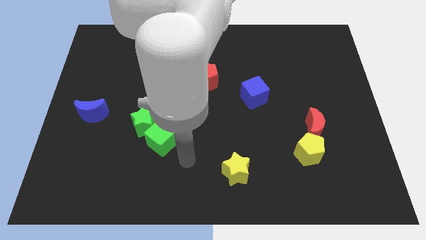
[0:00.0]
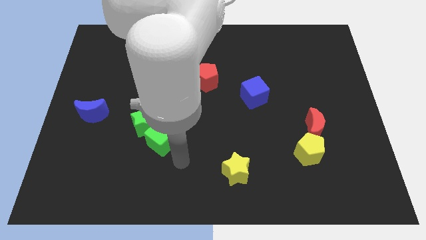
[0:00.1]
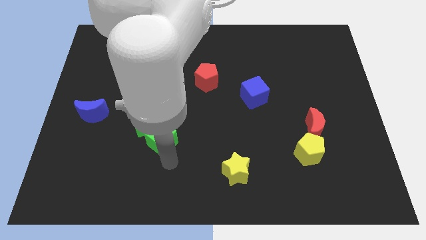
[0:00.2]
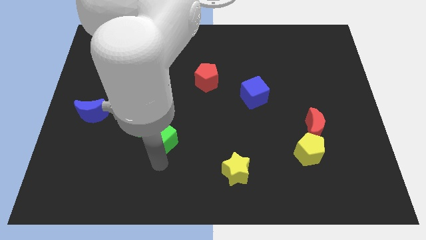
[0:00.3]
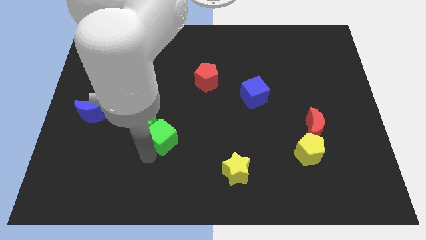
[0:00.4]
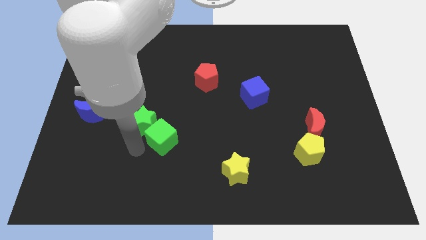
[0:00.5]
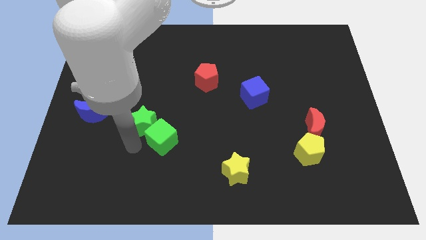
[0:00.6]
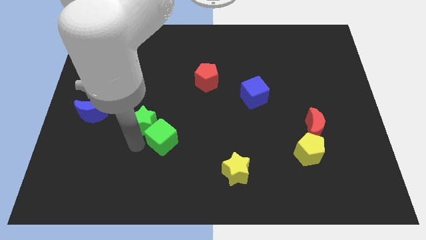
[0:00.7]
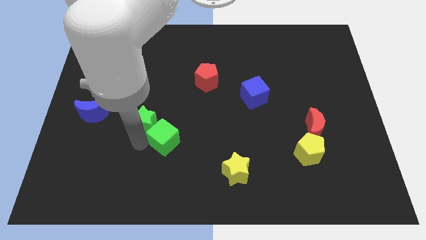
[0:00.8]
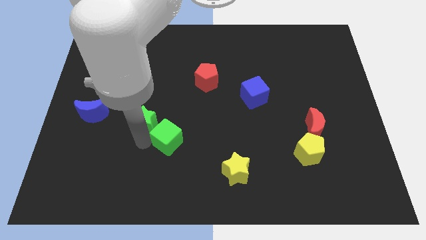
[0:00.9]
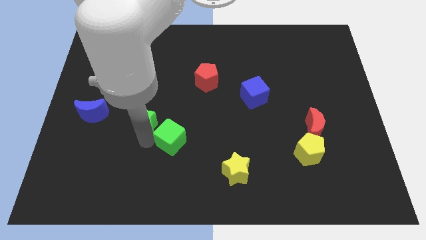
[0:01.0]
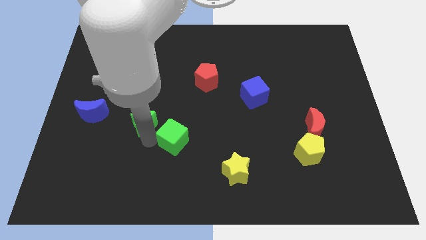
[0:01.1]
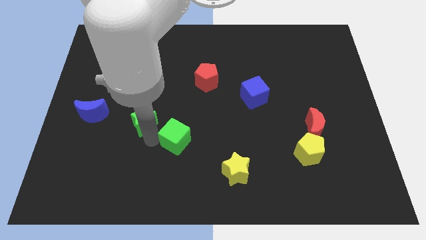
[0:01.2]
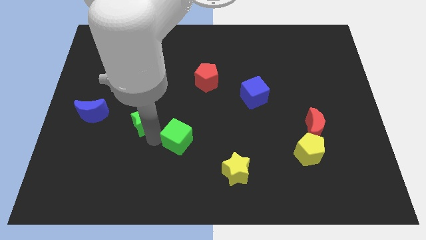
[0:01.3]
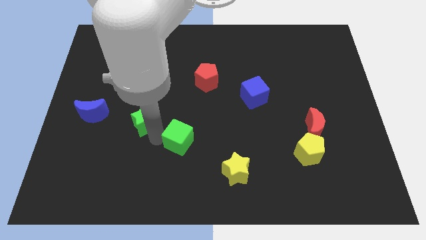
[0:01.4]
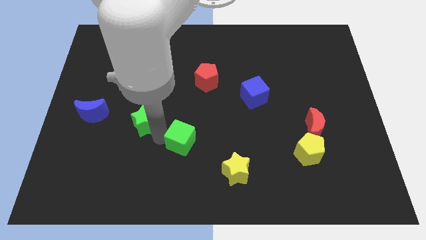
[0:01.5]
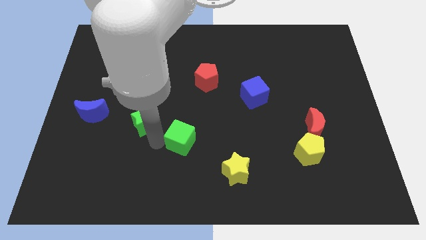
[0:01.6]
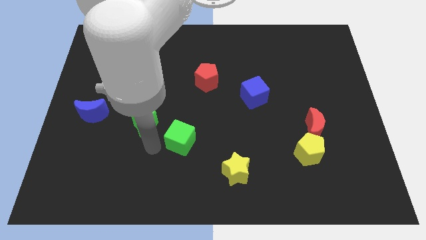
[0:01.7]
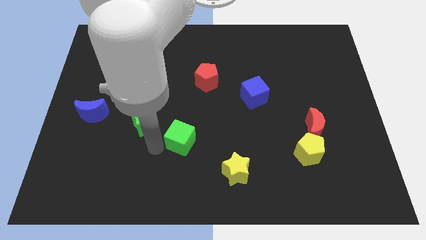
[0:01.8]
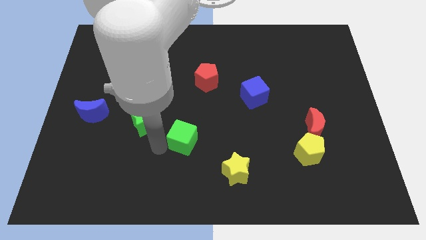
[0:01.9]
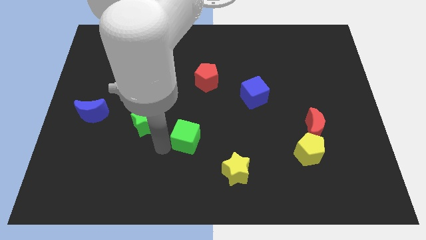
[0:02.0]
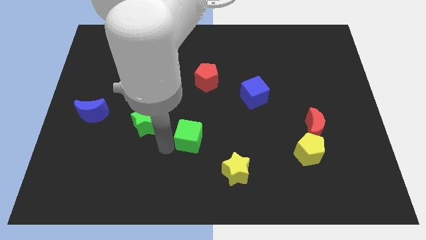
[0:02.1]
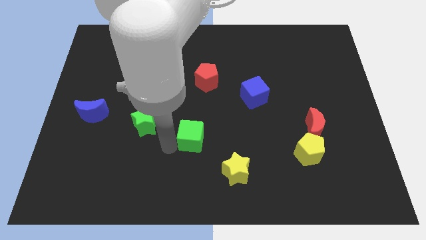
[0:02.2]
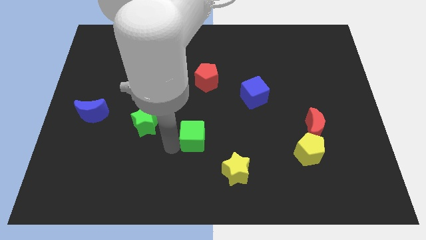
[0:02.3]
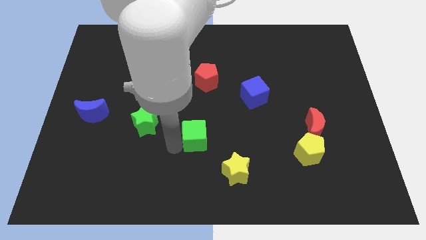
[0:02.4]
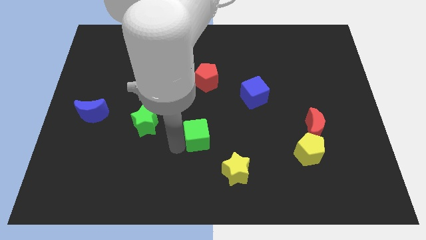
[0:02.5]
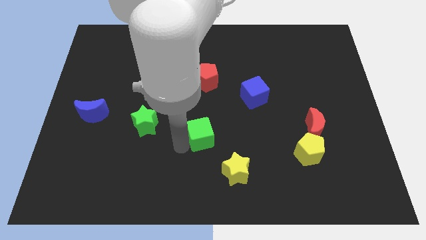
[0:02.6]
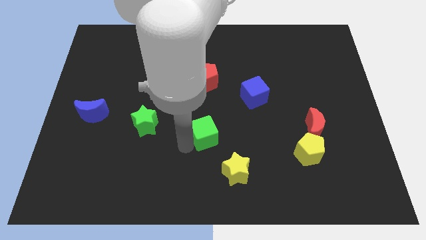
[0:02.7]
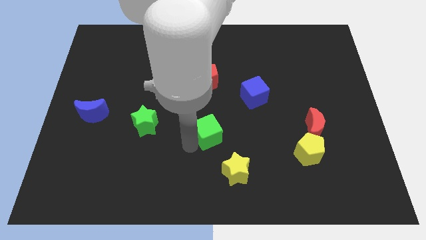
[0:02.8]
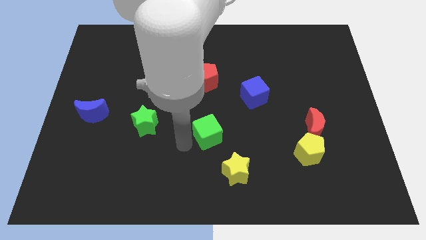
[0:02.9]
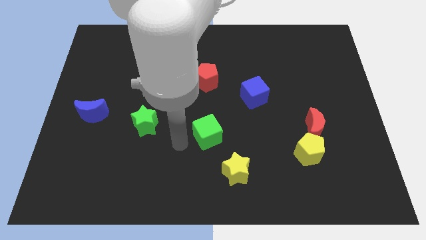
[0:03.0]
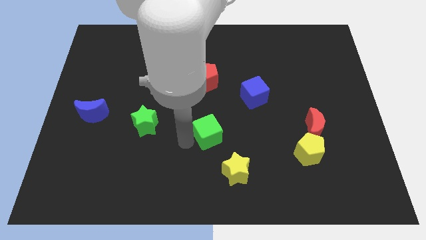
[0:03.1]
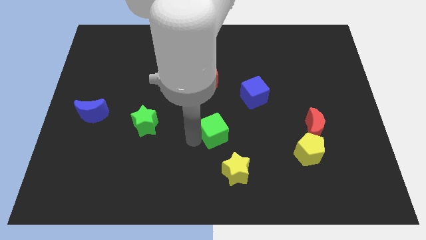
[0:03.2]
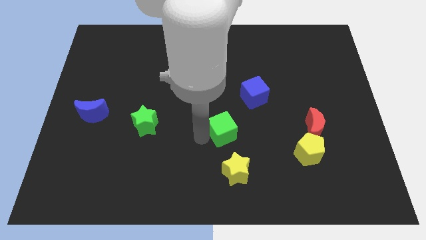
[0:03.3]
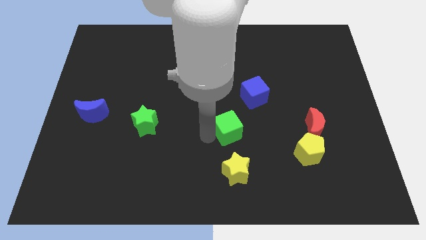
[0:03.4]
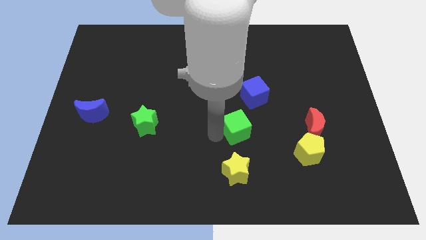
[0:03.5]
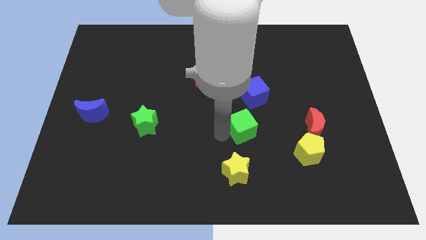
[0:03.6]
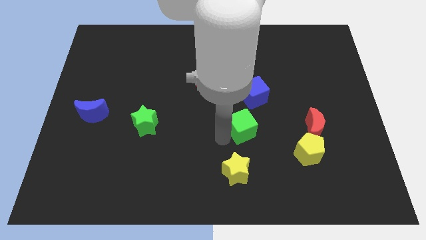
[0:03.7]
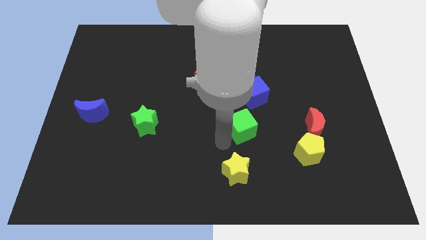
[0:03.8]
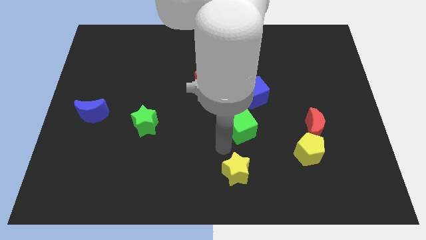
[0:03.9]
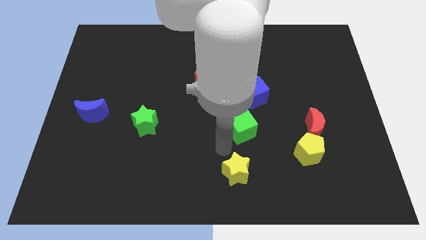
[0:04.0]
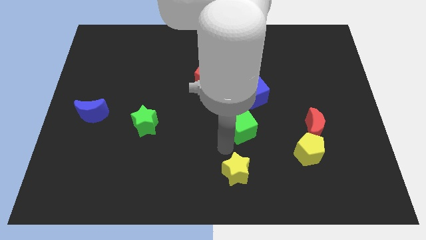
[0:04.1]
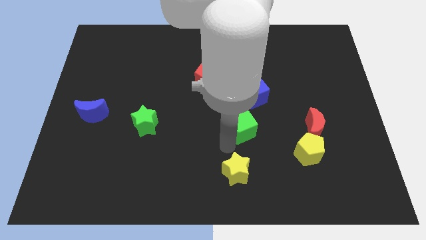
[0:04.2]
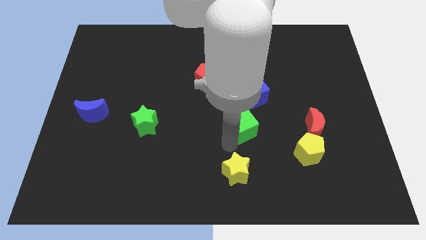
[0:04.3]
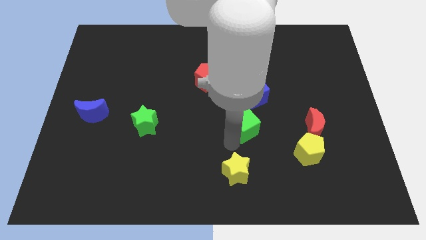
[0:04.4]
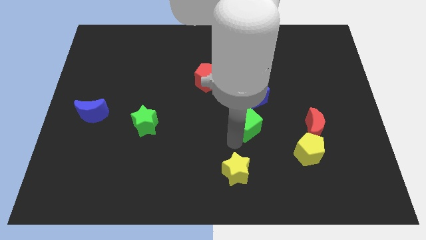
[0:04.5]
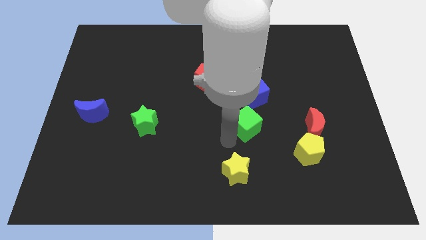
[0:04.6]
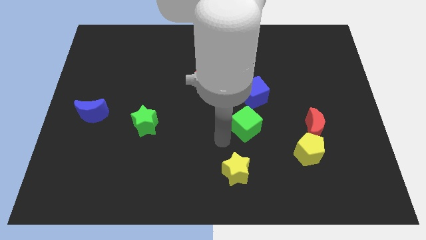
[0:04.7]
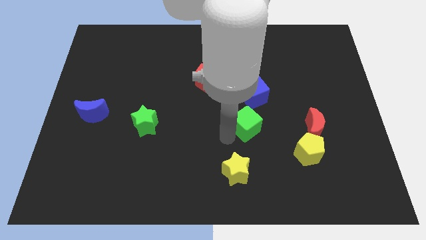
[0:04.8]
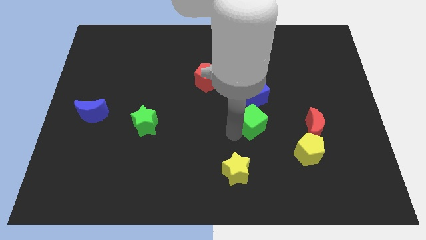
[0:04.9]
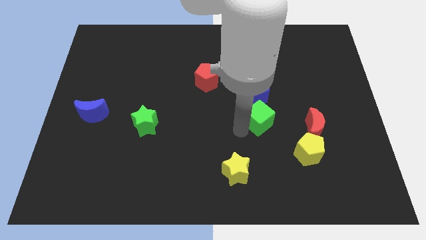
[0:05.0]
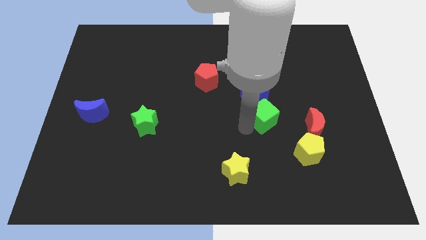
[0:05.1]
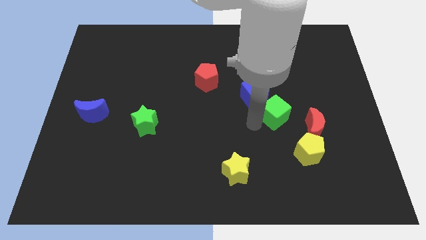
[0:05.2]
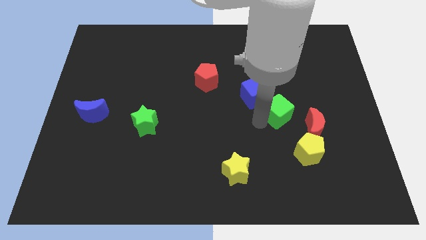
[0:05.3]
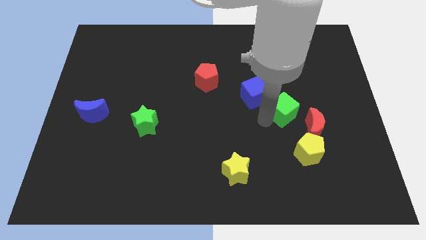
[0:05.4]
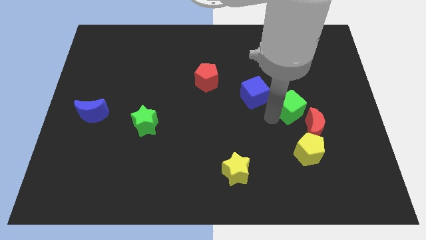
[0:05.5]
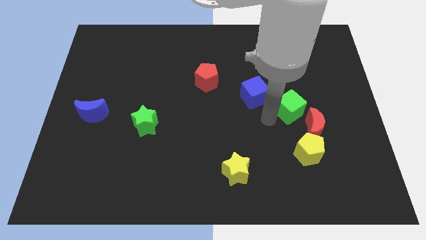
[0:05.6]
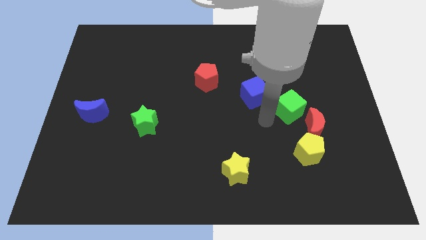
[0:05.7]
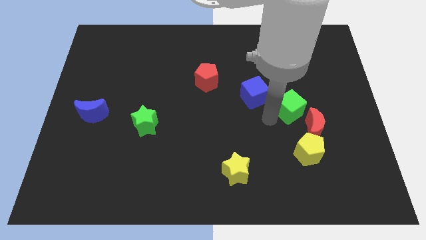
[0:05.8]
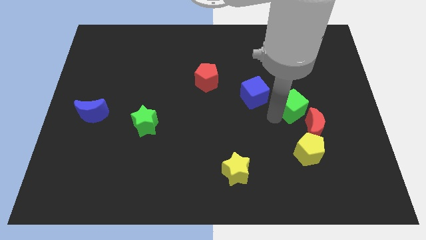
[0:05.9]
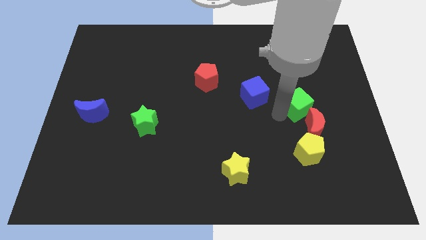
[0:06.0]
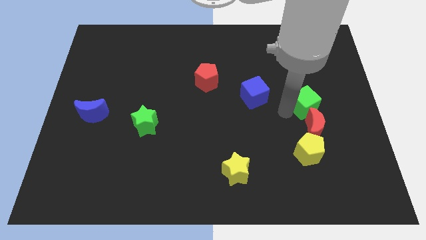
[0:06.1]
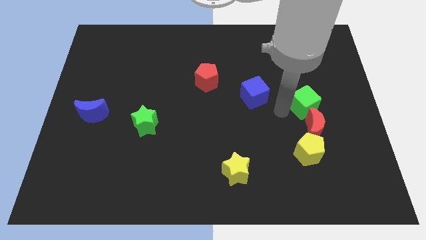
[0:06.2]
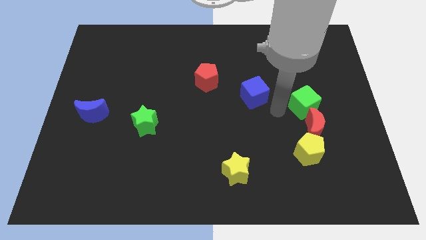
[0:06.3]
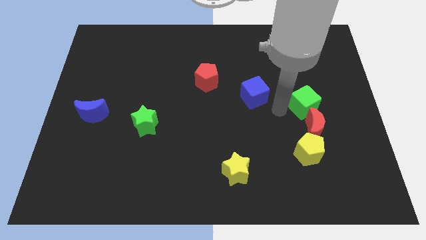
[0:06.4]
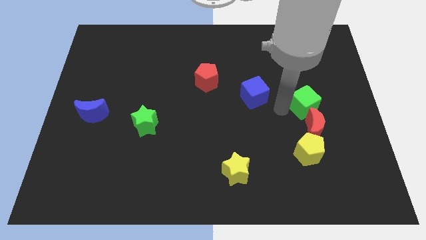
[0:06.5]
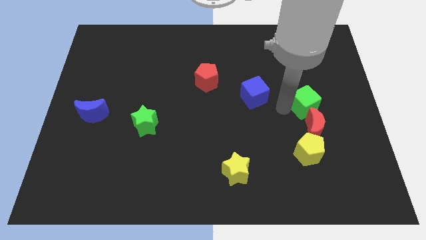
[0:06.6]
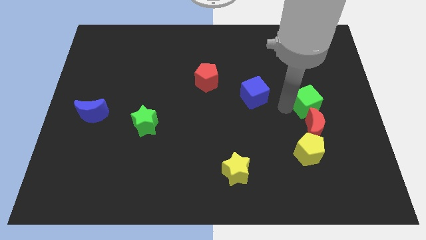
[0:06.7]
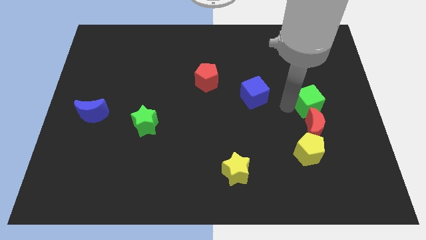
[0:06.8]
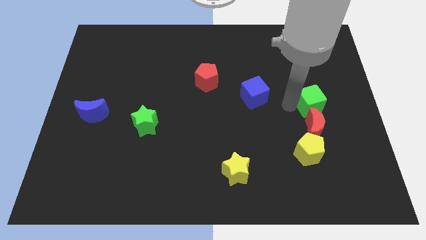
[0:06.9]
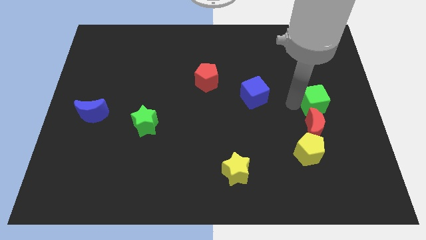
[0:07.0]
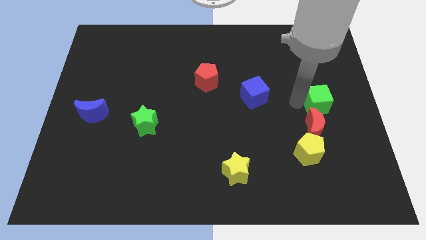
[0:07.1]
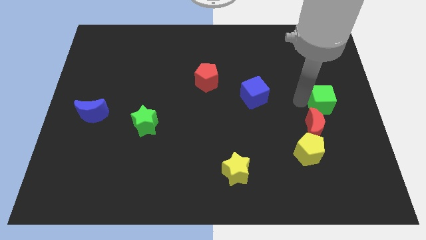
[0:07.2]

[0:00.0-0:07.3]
put the green cube to the right side of the board
